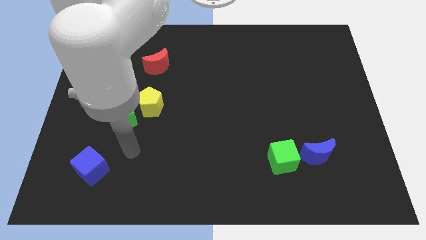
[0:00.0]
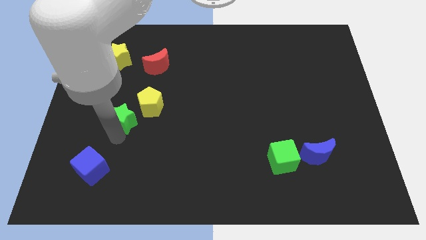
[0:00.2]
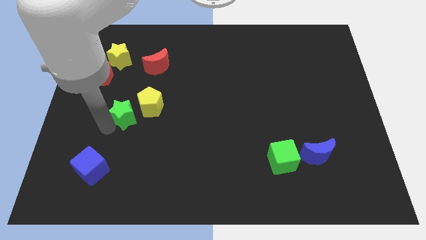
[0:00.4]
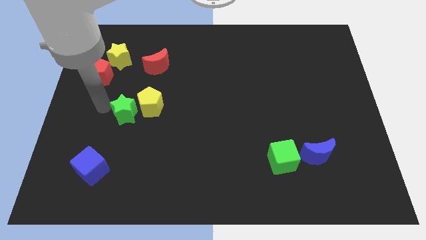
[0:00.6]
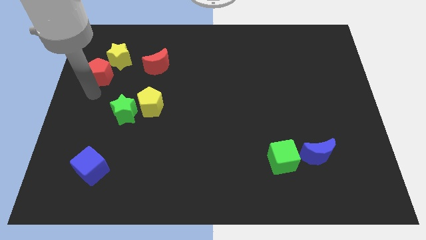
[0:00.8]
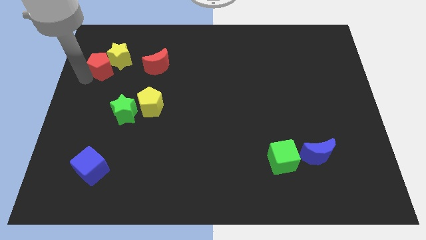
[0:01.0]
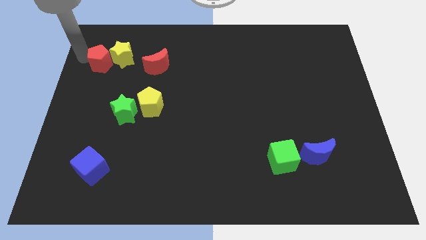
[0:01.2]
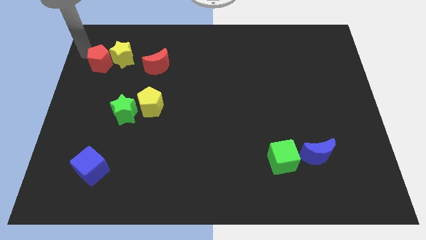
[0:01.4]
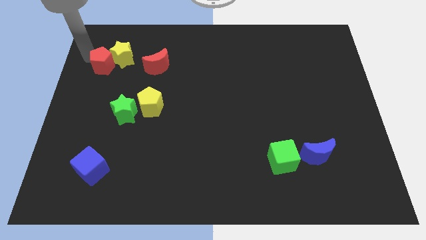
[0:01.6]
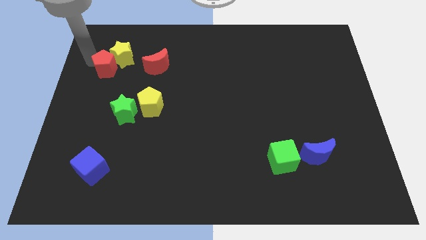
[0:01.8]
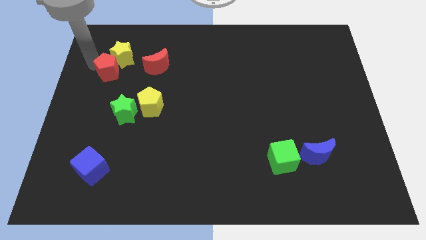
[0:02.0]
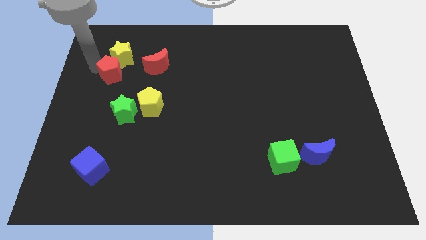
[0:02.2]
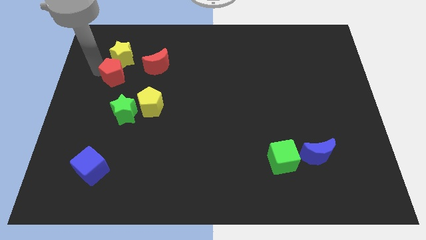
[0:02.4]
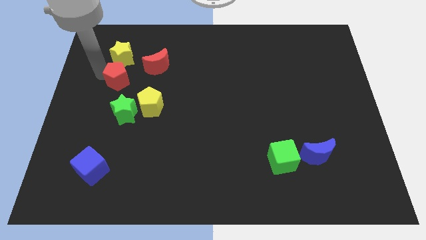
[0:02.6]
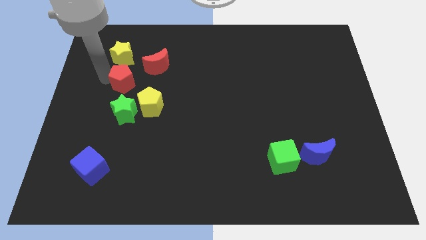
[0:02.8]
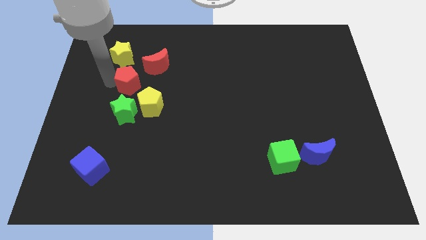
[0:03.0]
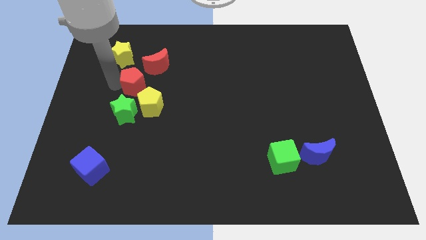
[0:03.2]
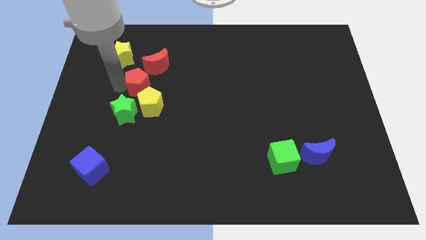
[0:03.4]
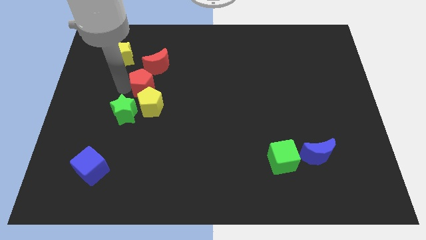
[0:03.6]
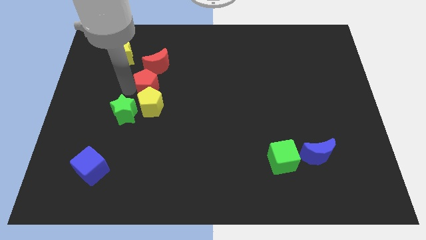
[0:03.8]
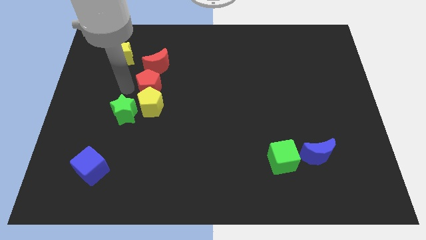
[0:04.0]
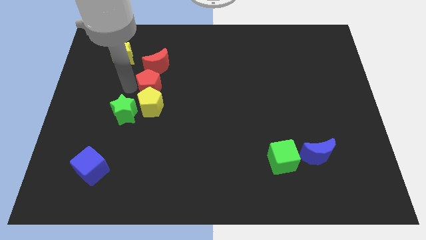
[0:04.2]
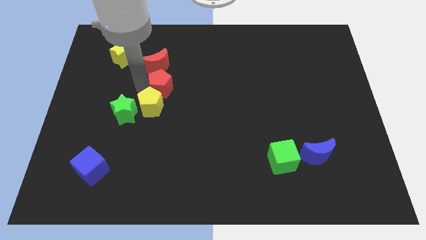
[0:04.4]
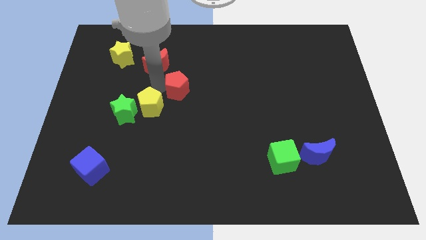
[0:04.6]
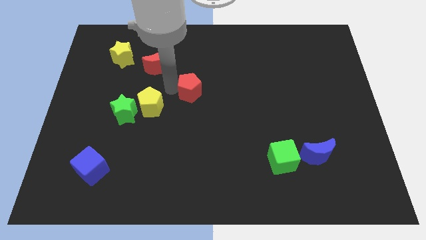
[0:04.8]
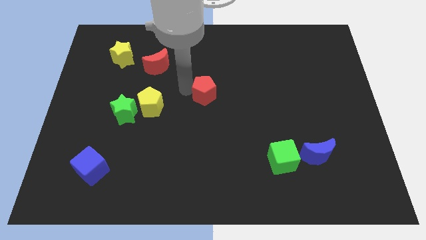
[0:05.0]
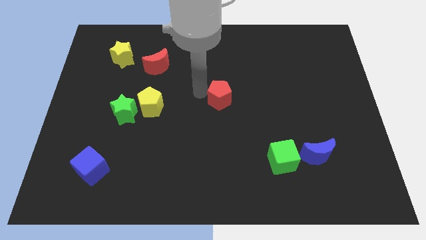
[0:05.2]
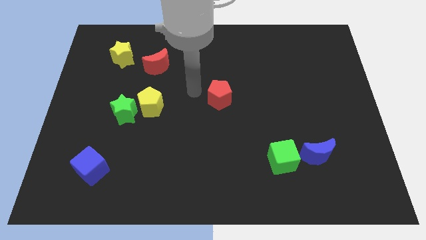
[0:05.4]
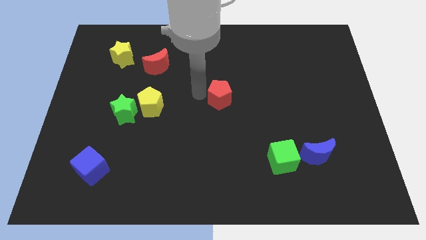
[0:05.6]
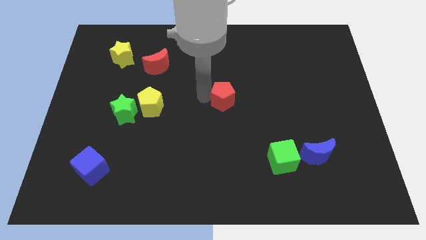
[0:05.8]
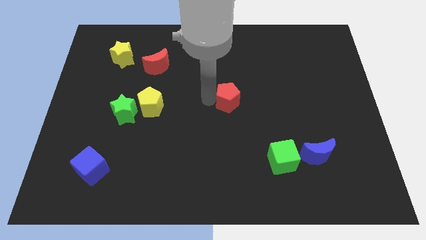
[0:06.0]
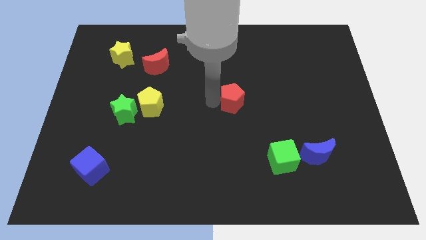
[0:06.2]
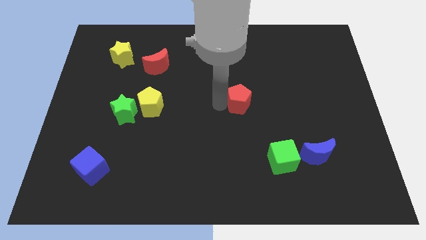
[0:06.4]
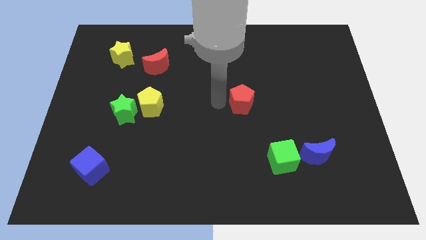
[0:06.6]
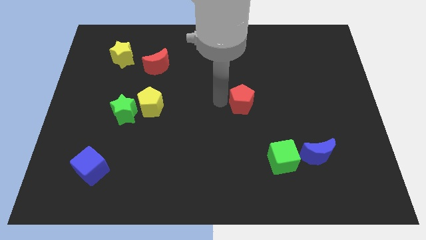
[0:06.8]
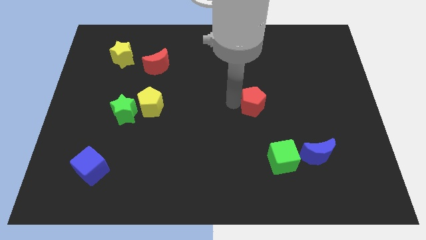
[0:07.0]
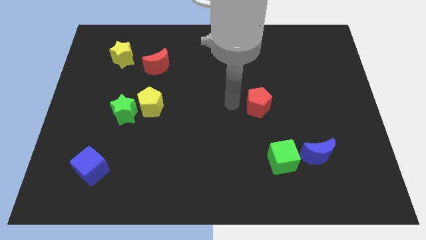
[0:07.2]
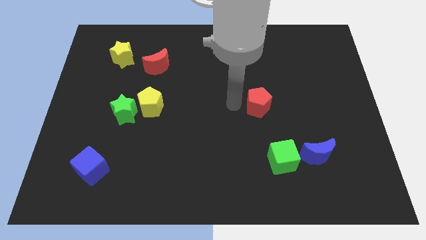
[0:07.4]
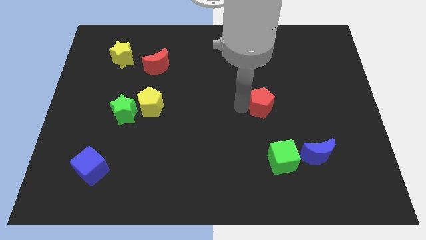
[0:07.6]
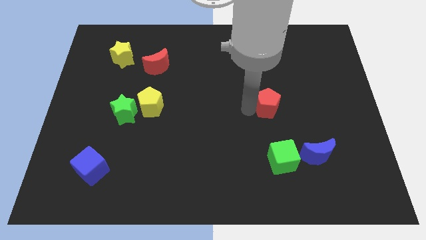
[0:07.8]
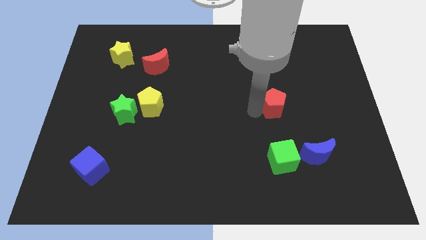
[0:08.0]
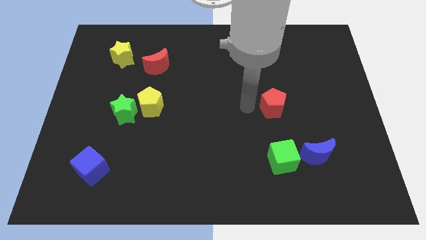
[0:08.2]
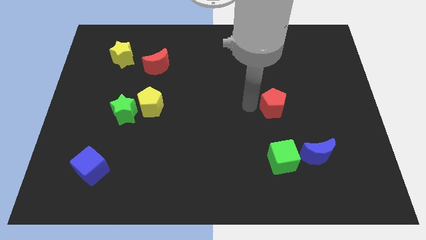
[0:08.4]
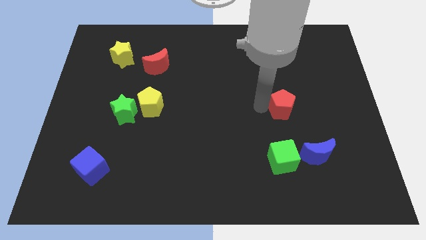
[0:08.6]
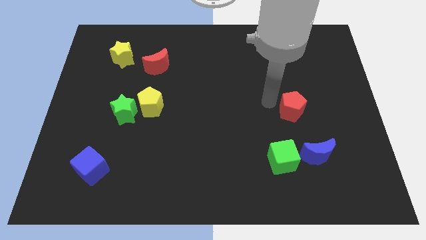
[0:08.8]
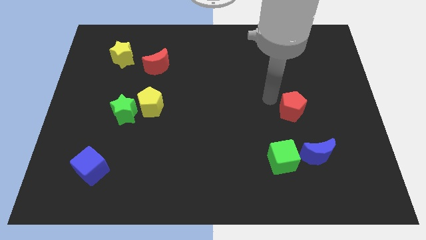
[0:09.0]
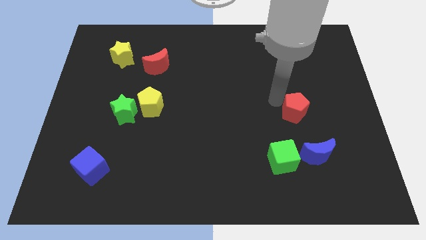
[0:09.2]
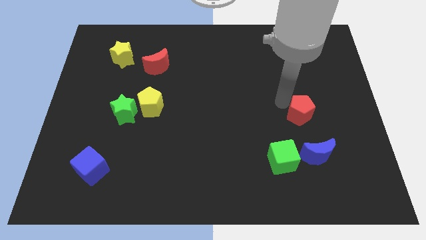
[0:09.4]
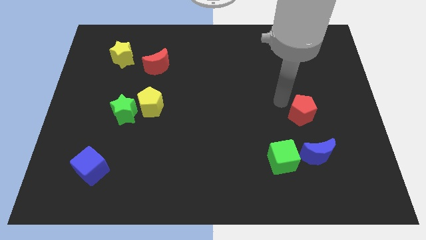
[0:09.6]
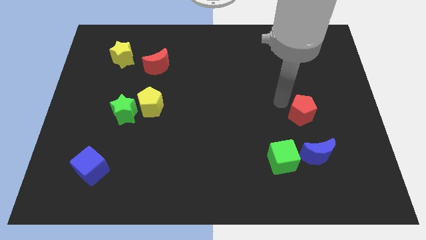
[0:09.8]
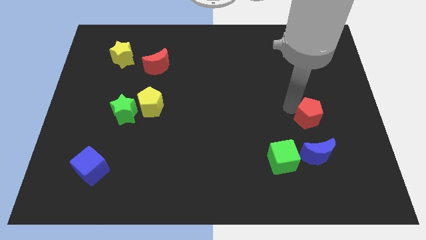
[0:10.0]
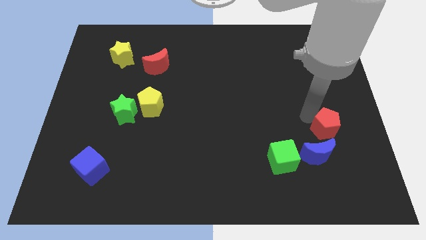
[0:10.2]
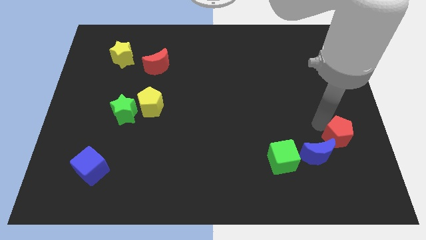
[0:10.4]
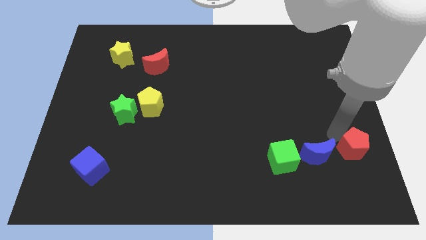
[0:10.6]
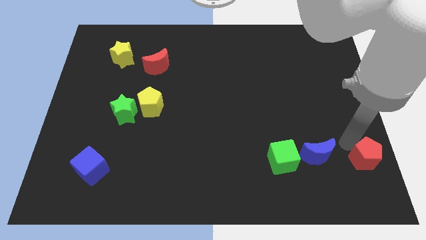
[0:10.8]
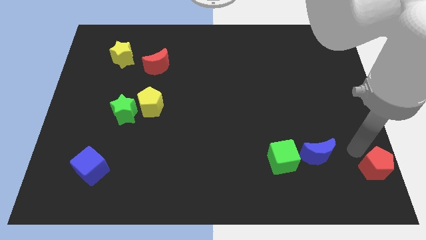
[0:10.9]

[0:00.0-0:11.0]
put the red pentagon to the bottom right

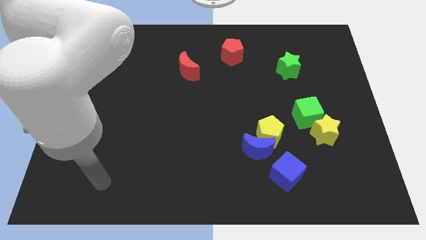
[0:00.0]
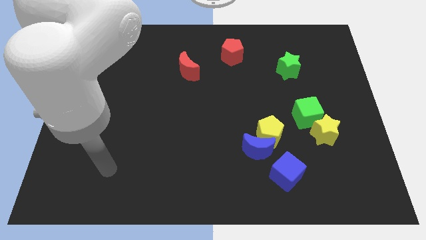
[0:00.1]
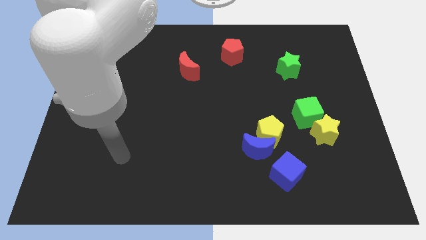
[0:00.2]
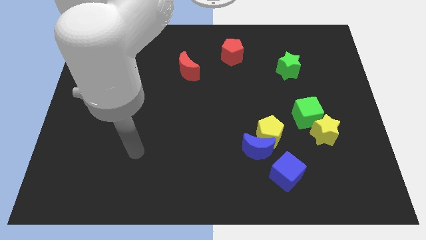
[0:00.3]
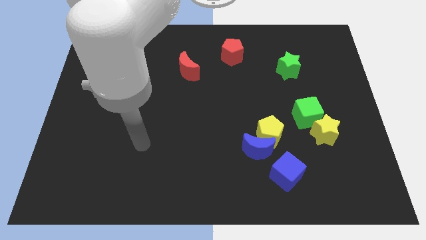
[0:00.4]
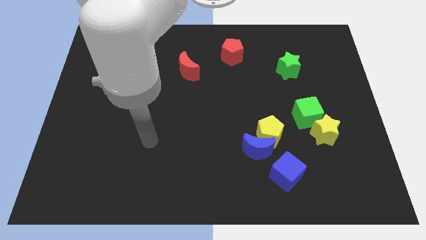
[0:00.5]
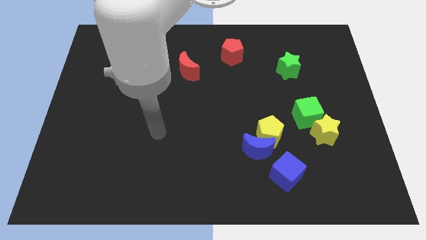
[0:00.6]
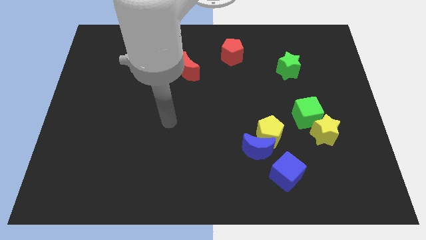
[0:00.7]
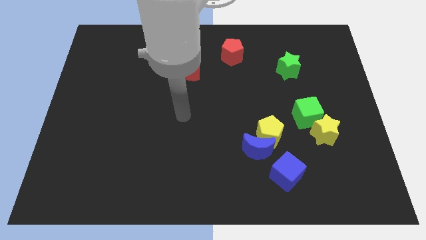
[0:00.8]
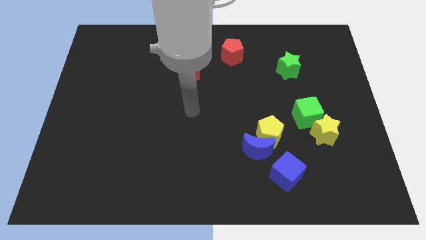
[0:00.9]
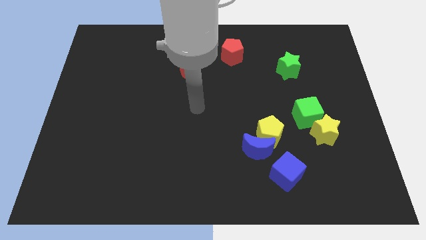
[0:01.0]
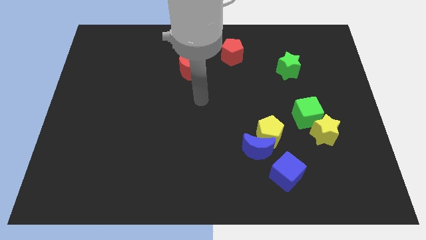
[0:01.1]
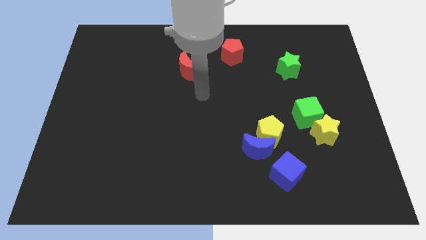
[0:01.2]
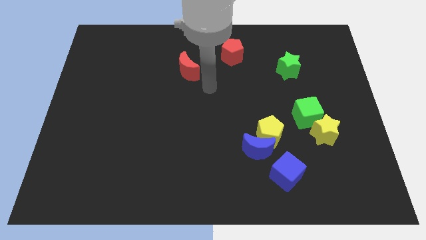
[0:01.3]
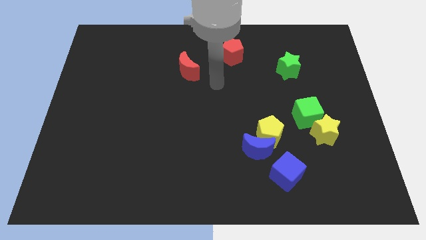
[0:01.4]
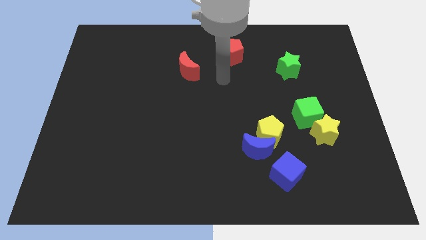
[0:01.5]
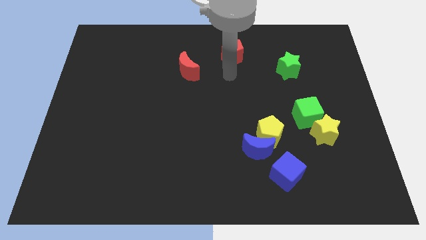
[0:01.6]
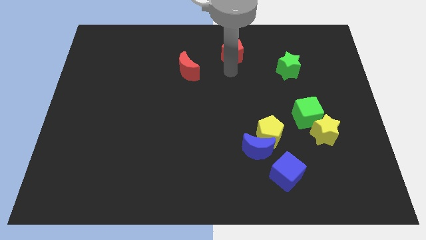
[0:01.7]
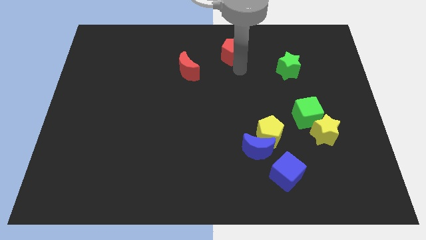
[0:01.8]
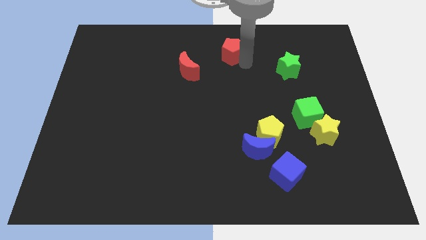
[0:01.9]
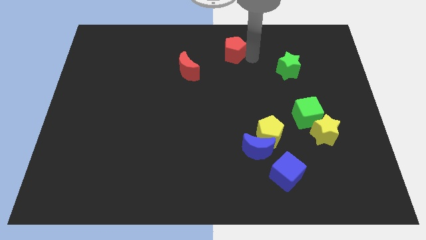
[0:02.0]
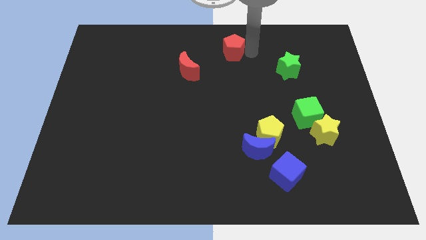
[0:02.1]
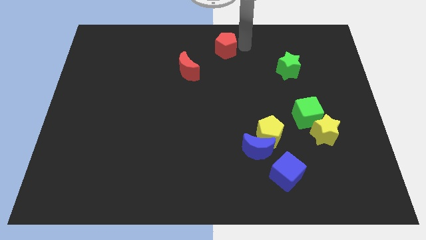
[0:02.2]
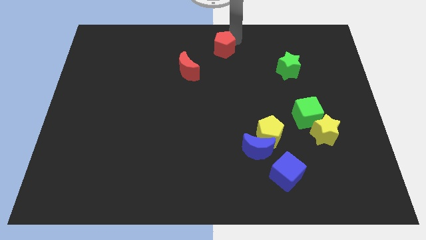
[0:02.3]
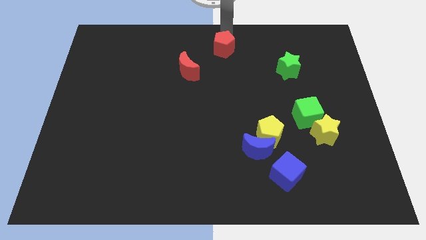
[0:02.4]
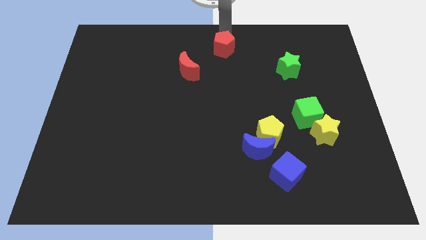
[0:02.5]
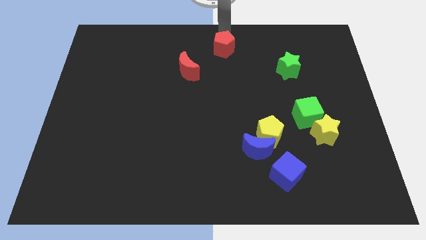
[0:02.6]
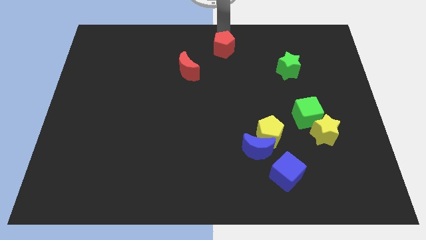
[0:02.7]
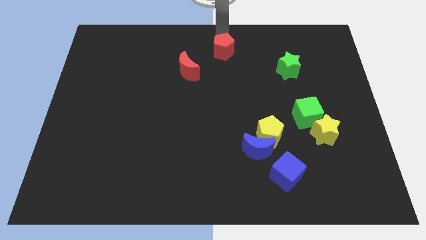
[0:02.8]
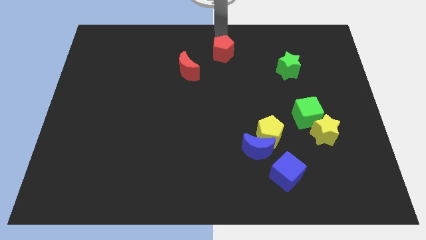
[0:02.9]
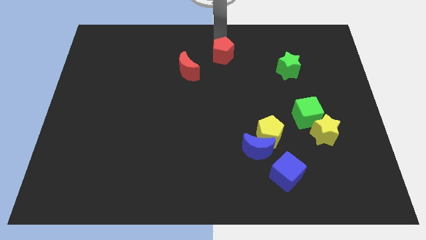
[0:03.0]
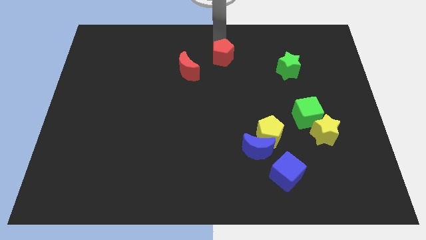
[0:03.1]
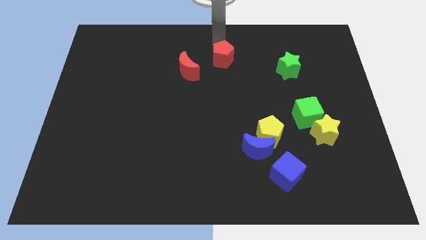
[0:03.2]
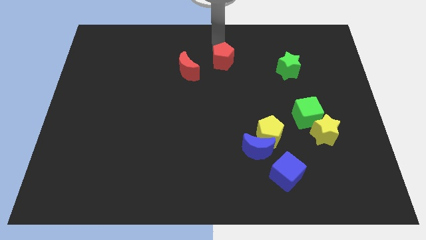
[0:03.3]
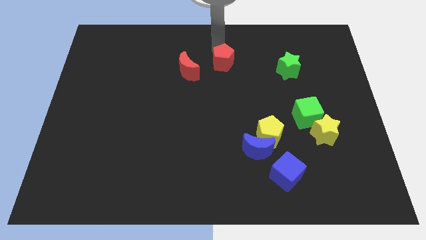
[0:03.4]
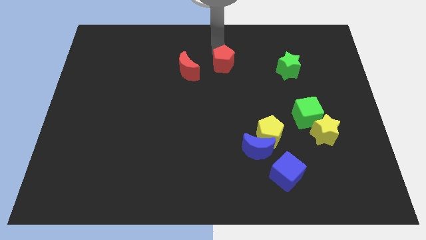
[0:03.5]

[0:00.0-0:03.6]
push the red pentagon to the middle
